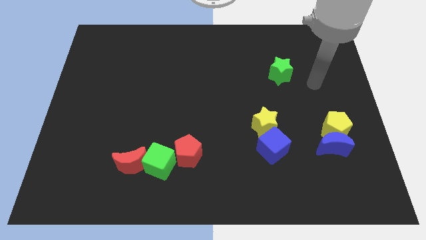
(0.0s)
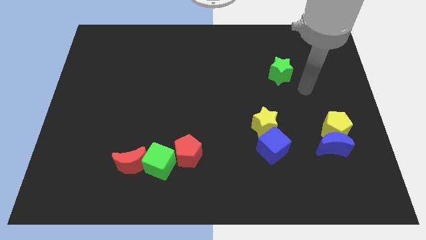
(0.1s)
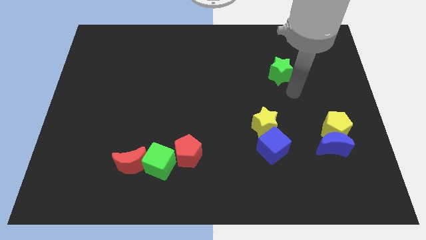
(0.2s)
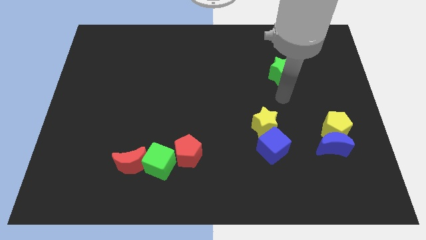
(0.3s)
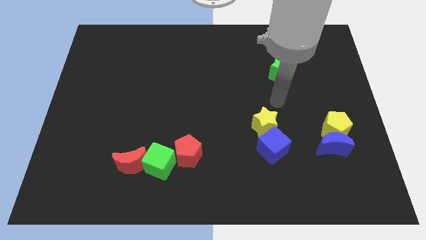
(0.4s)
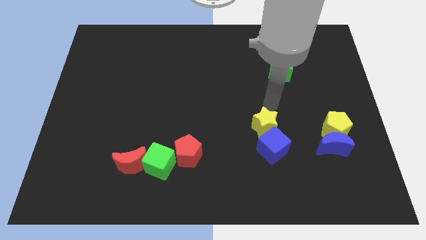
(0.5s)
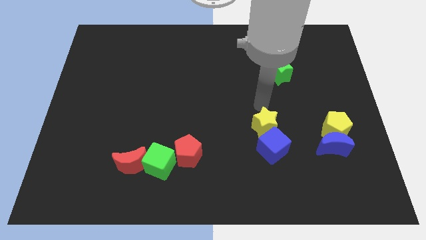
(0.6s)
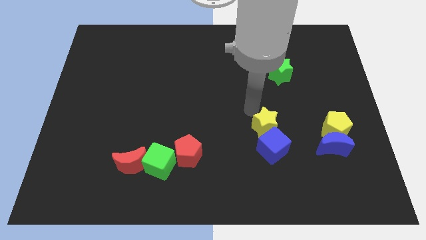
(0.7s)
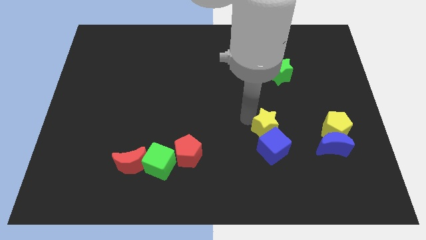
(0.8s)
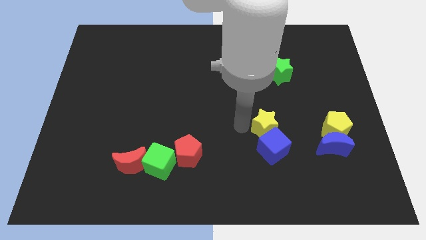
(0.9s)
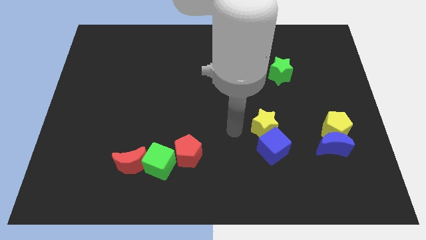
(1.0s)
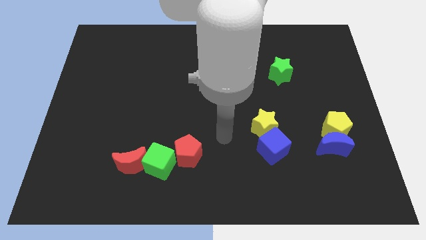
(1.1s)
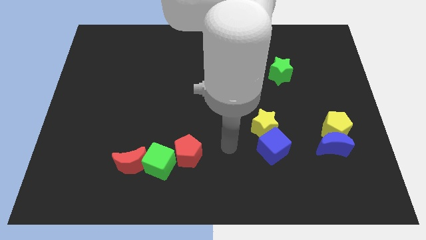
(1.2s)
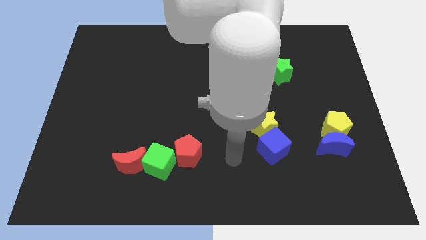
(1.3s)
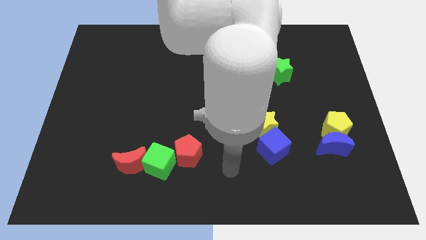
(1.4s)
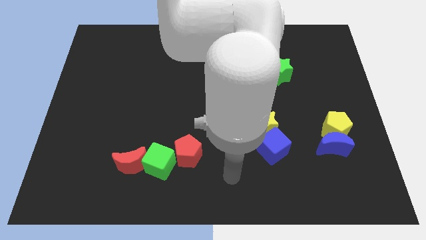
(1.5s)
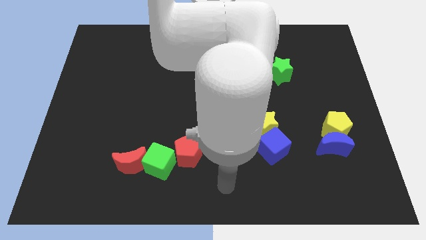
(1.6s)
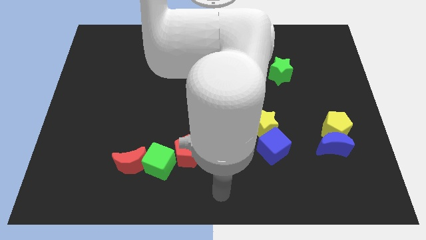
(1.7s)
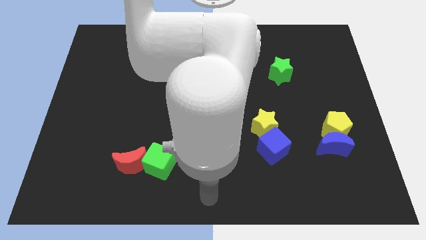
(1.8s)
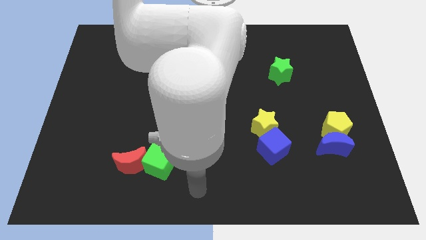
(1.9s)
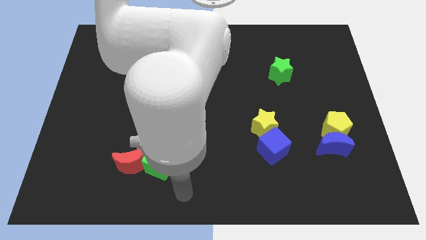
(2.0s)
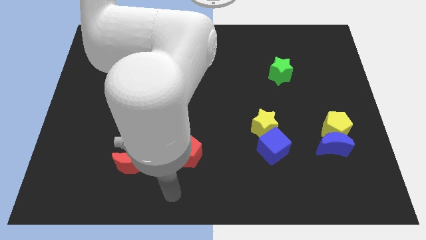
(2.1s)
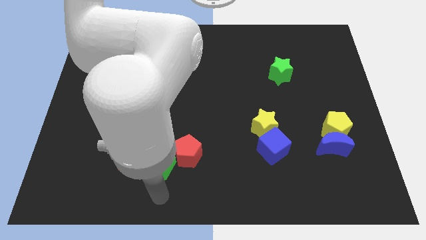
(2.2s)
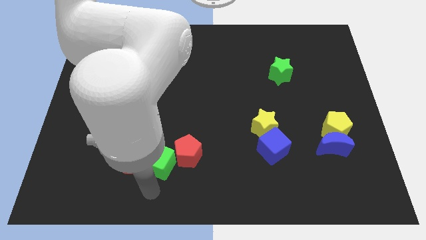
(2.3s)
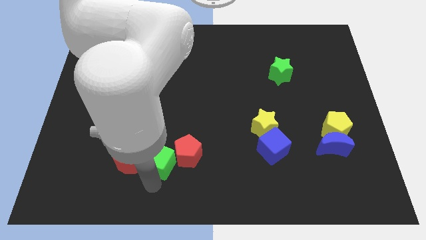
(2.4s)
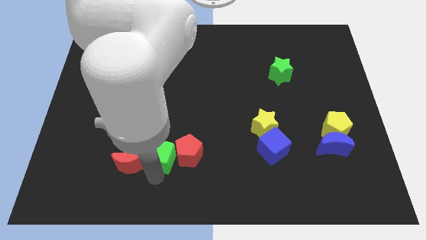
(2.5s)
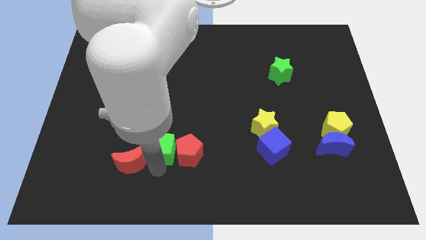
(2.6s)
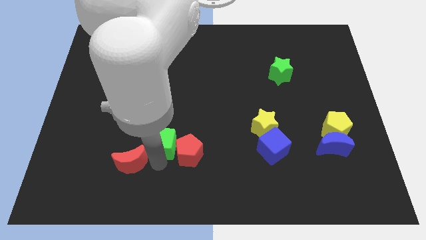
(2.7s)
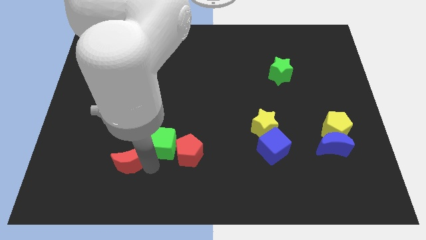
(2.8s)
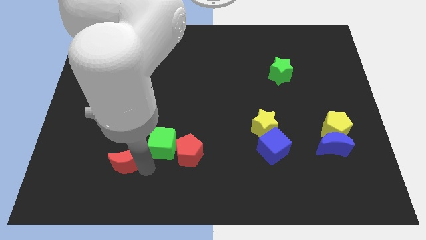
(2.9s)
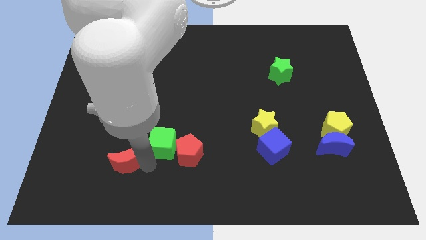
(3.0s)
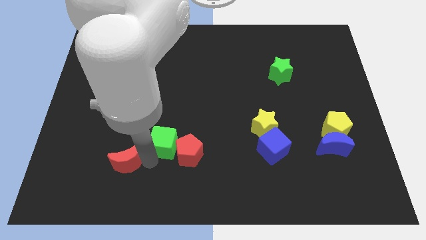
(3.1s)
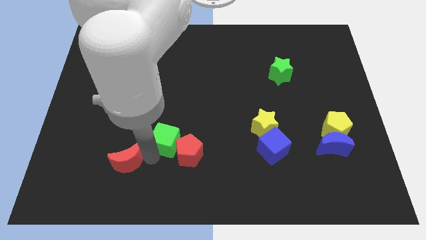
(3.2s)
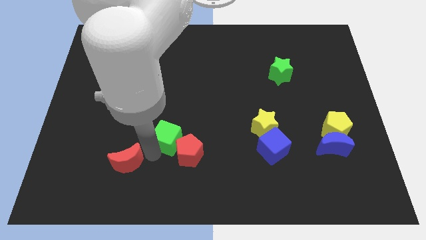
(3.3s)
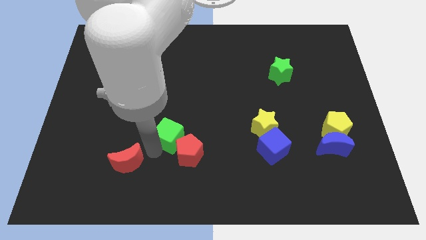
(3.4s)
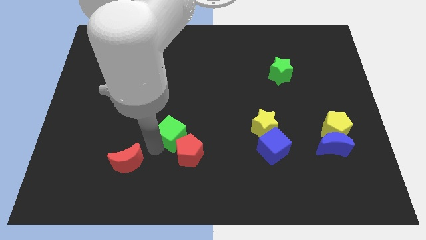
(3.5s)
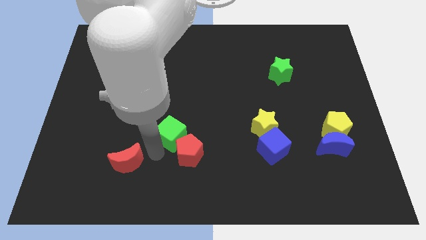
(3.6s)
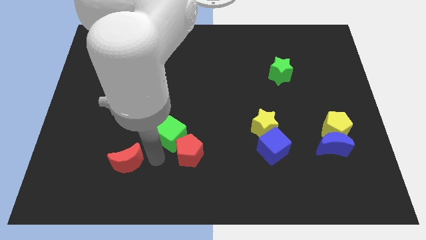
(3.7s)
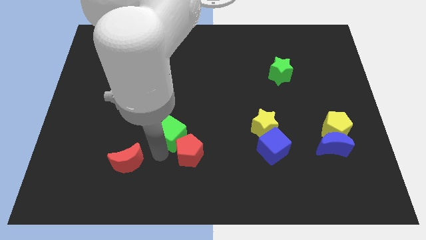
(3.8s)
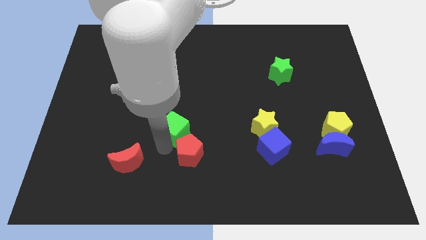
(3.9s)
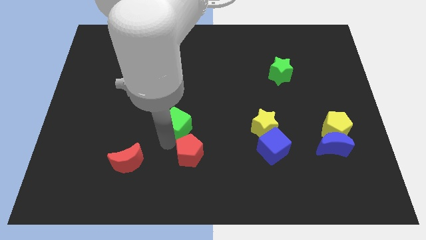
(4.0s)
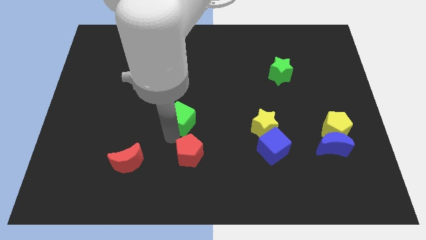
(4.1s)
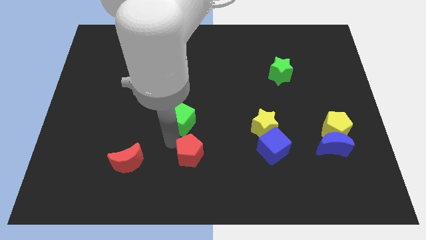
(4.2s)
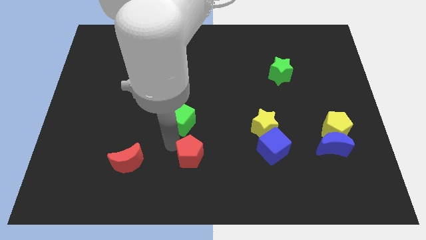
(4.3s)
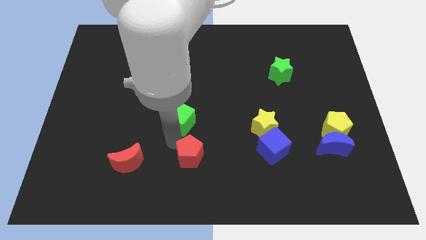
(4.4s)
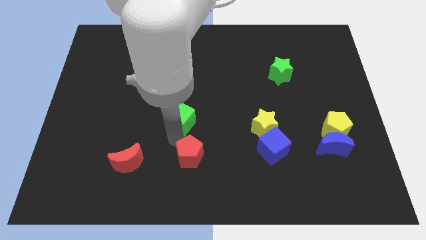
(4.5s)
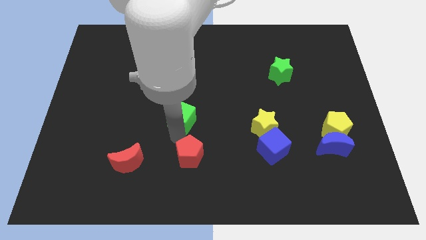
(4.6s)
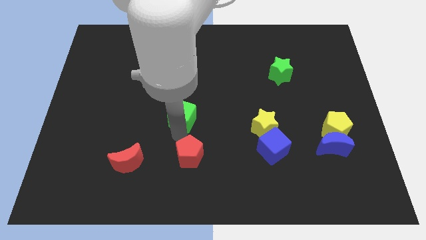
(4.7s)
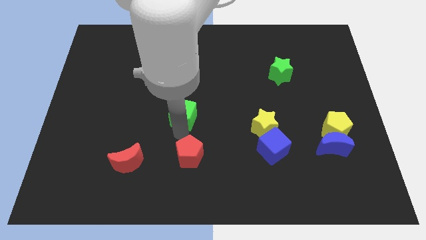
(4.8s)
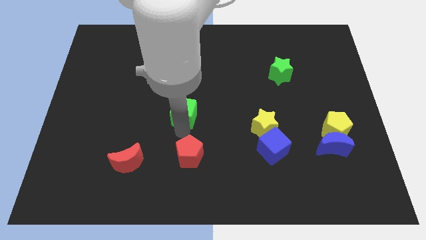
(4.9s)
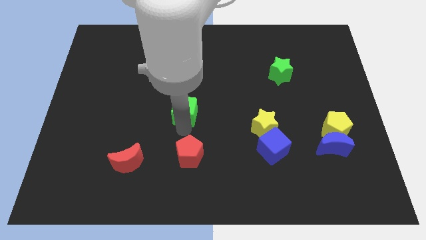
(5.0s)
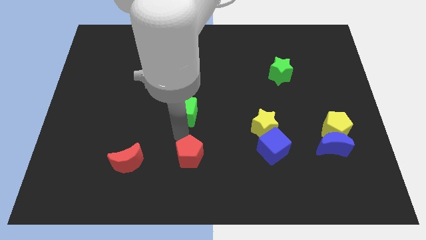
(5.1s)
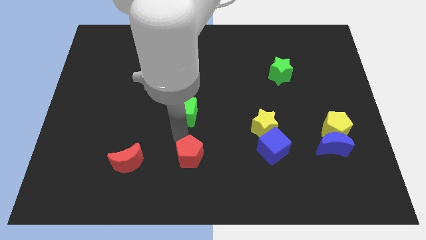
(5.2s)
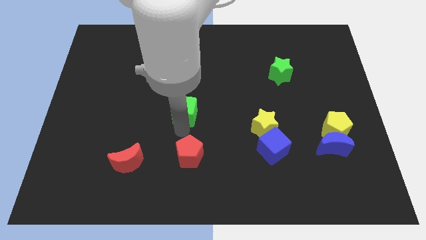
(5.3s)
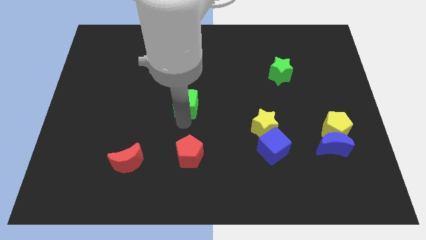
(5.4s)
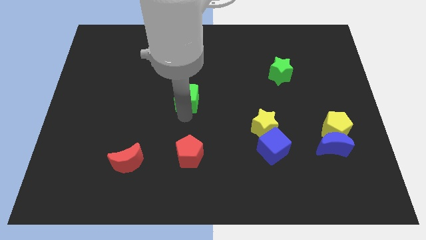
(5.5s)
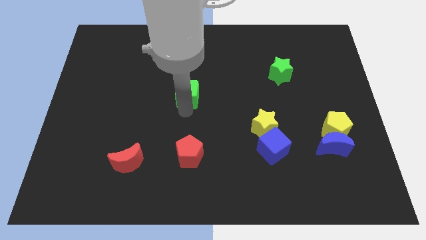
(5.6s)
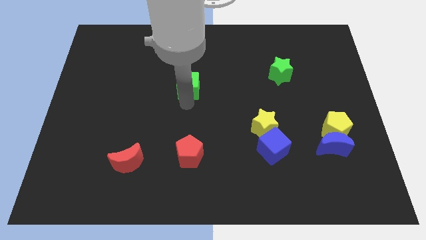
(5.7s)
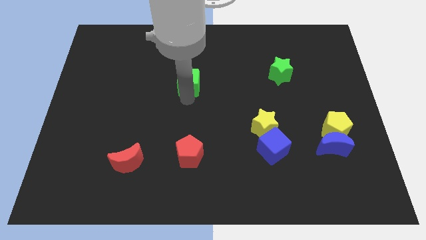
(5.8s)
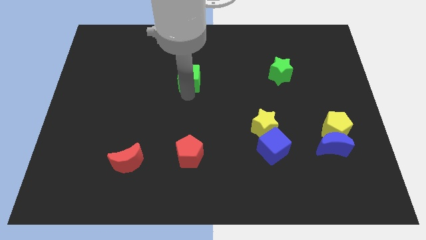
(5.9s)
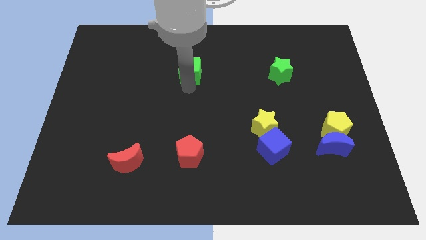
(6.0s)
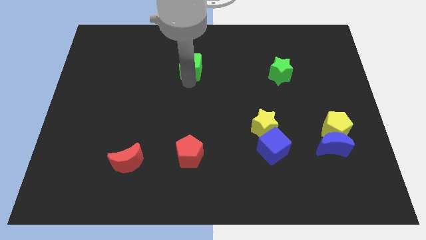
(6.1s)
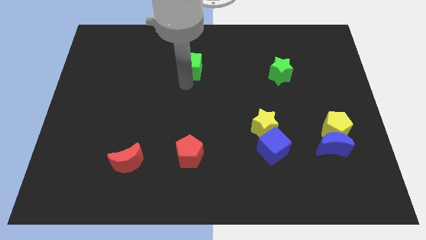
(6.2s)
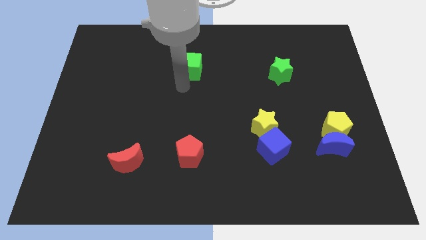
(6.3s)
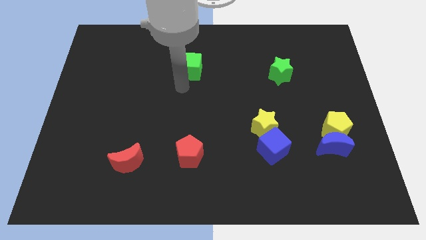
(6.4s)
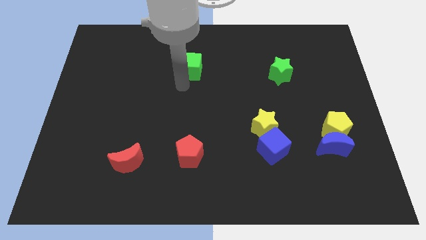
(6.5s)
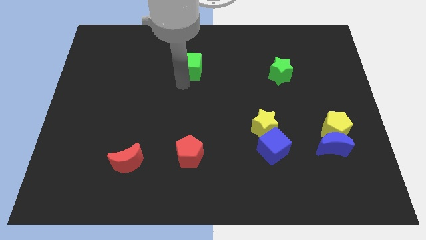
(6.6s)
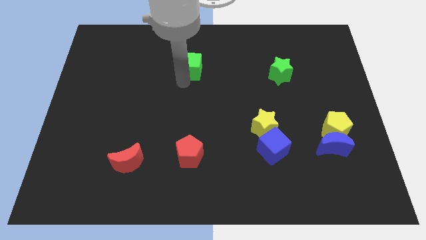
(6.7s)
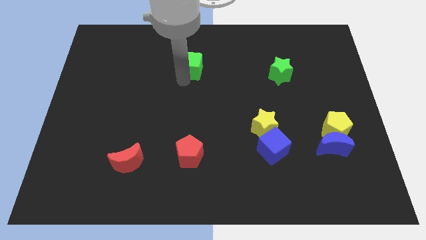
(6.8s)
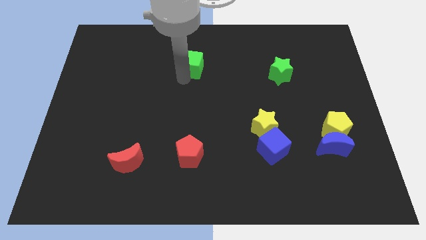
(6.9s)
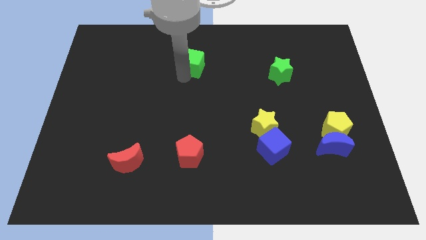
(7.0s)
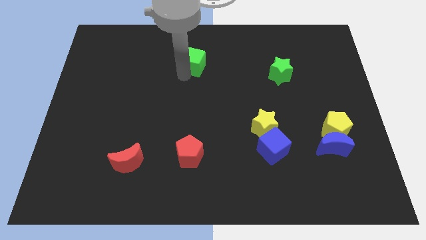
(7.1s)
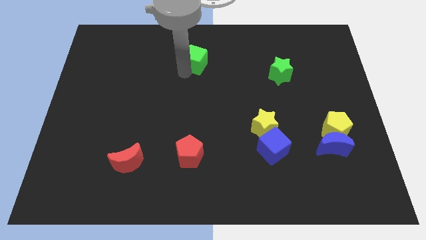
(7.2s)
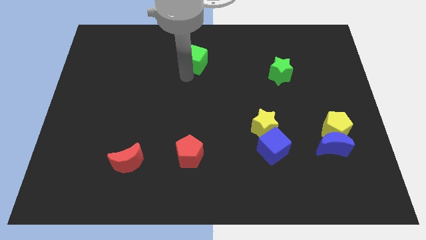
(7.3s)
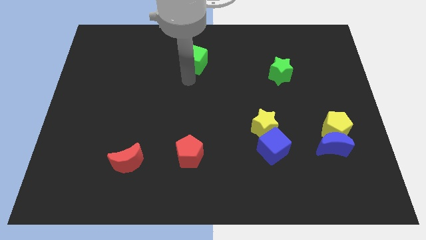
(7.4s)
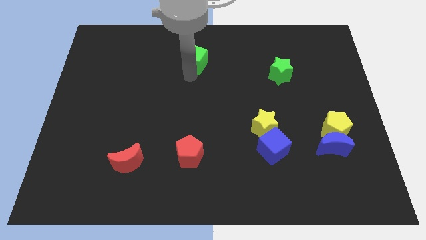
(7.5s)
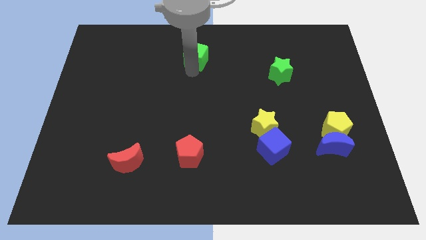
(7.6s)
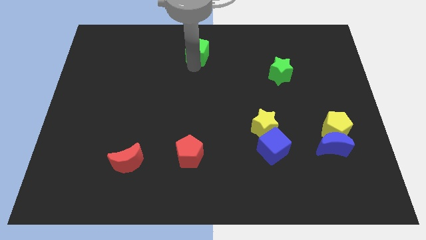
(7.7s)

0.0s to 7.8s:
move the green cube to the top
